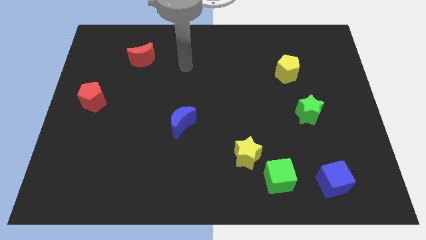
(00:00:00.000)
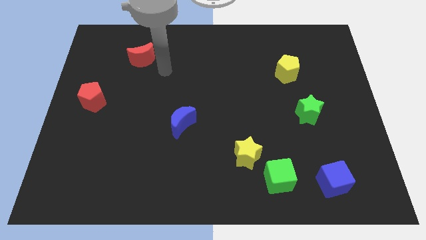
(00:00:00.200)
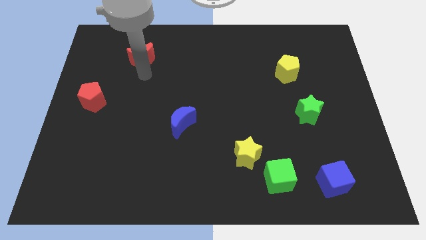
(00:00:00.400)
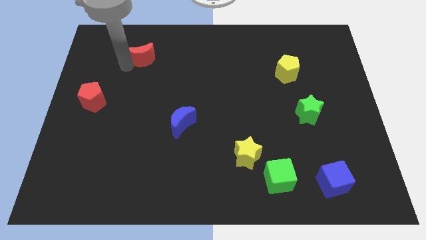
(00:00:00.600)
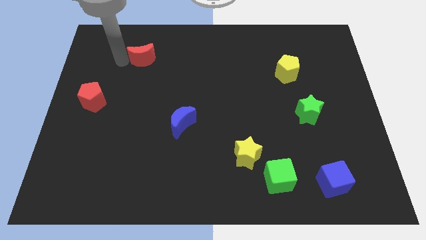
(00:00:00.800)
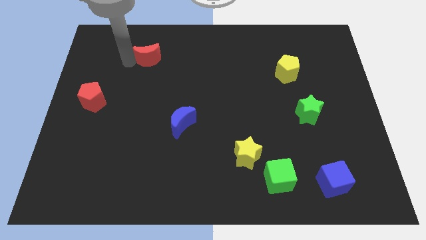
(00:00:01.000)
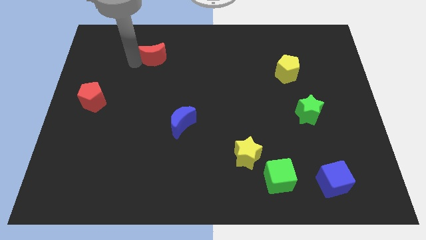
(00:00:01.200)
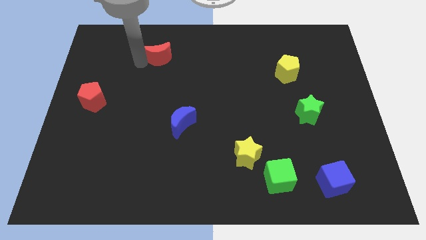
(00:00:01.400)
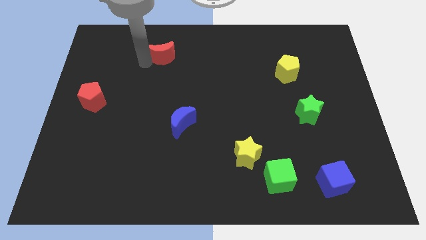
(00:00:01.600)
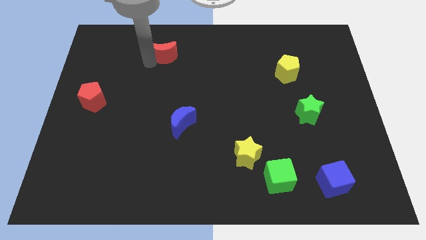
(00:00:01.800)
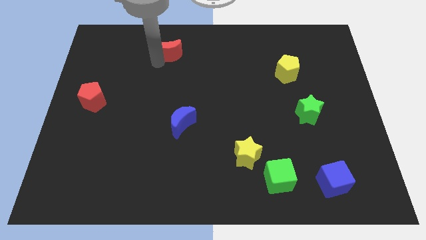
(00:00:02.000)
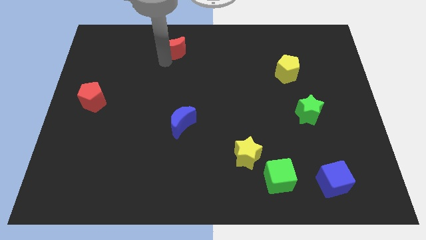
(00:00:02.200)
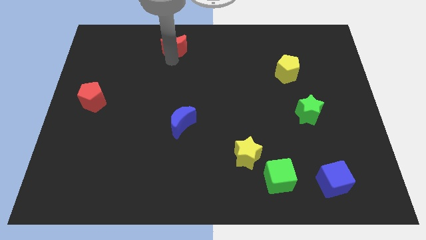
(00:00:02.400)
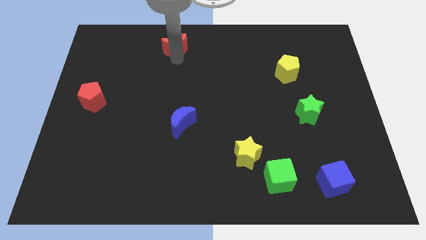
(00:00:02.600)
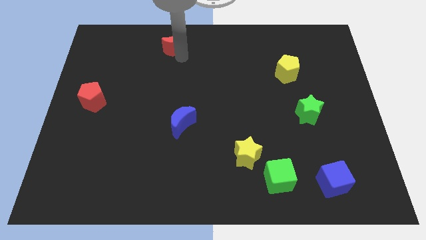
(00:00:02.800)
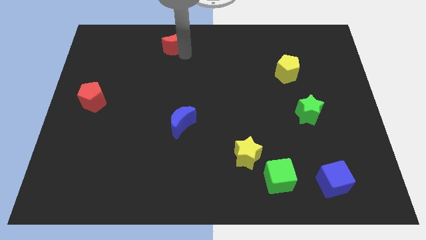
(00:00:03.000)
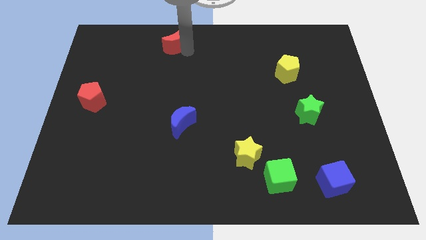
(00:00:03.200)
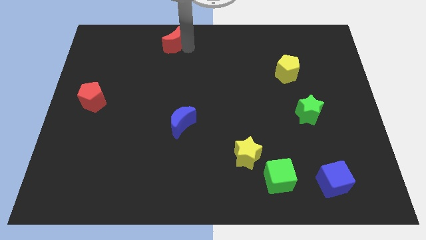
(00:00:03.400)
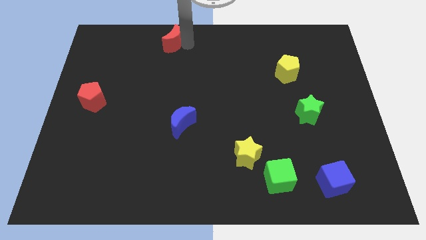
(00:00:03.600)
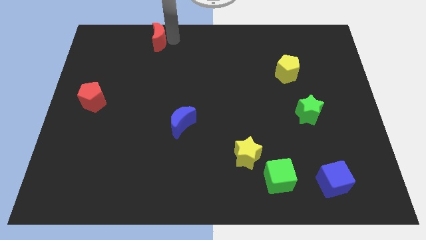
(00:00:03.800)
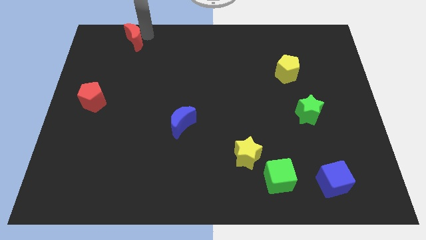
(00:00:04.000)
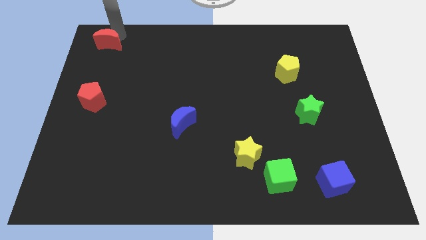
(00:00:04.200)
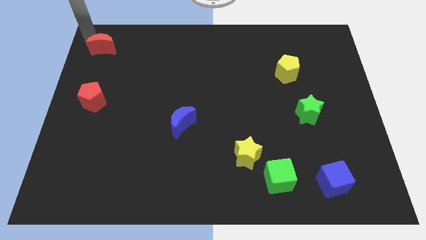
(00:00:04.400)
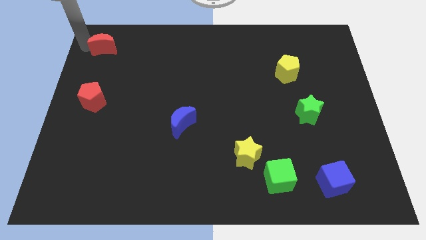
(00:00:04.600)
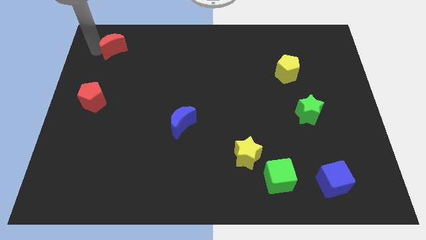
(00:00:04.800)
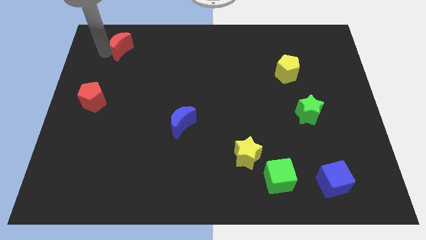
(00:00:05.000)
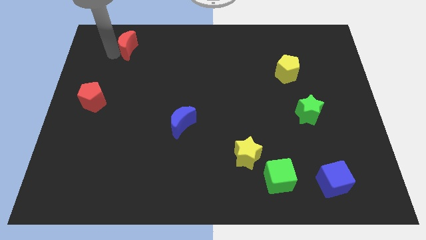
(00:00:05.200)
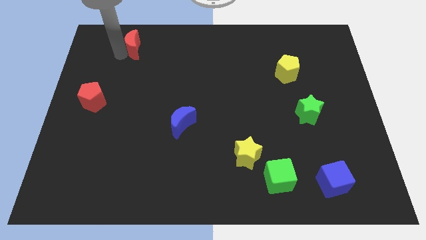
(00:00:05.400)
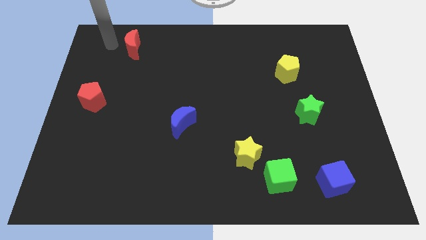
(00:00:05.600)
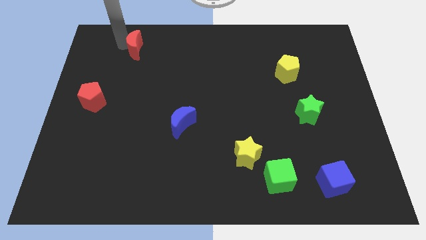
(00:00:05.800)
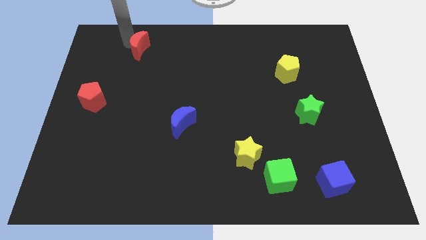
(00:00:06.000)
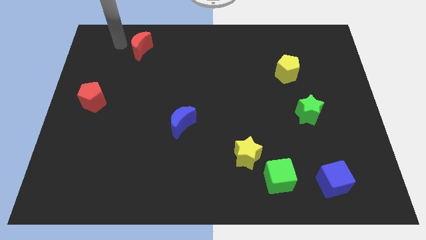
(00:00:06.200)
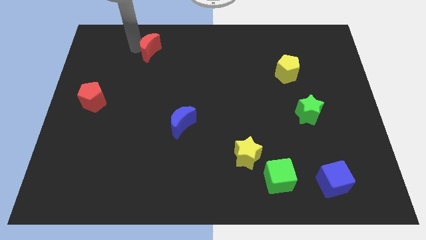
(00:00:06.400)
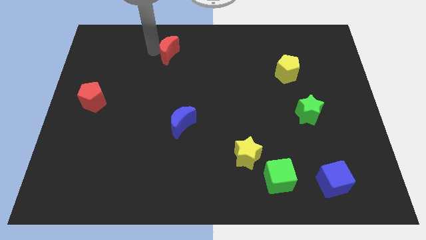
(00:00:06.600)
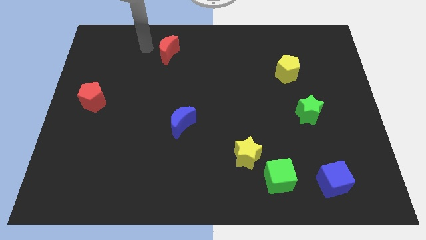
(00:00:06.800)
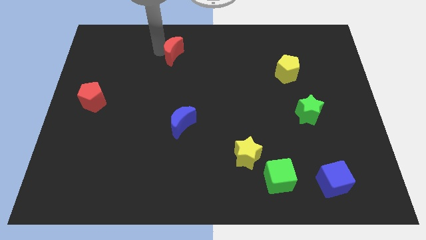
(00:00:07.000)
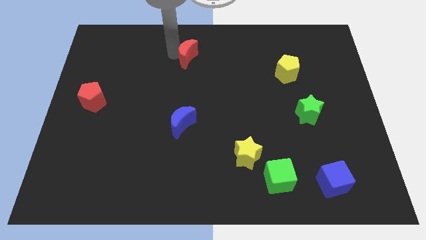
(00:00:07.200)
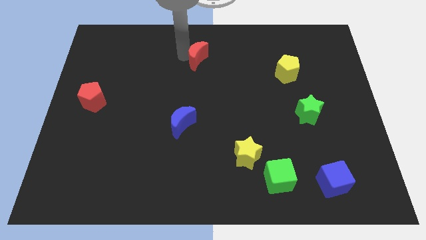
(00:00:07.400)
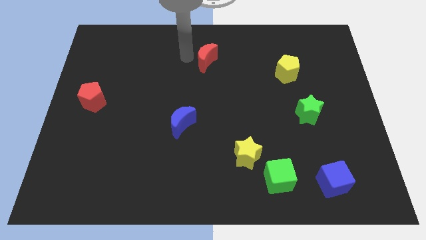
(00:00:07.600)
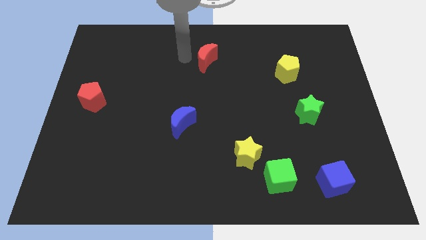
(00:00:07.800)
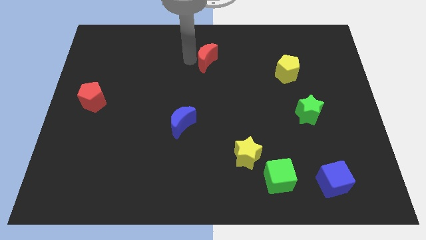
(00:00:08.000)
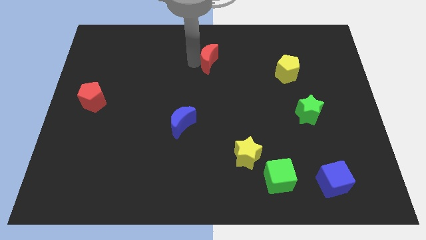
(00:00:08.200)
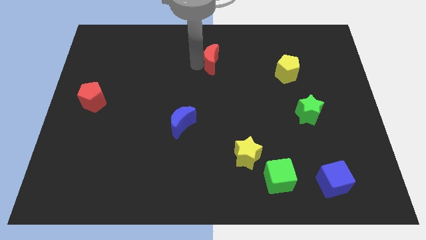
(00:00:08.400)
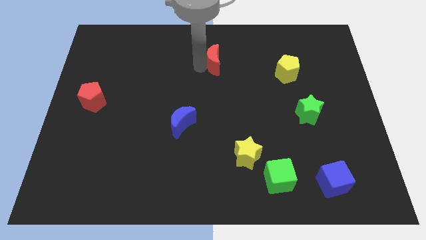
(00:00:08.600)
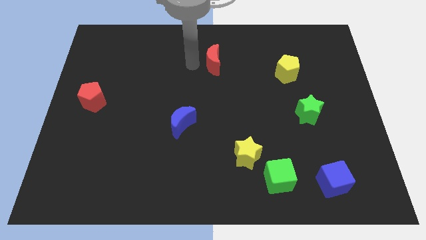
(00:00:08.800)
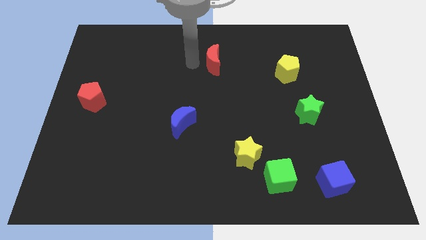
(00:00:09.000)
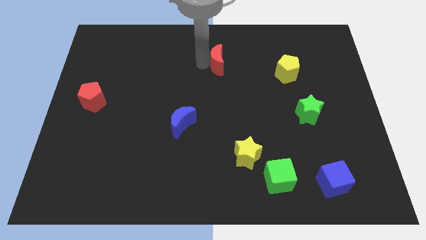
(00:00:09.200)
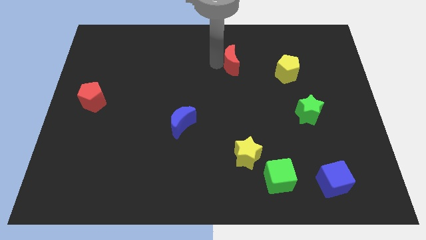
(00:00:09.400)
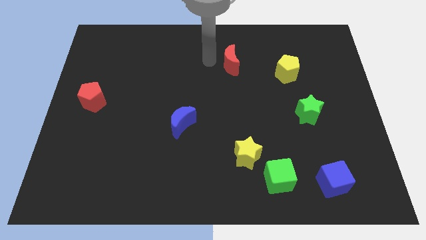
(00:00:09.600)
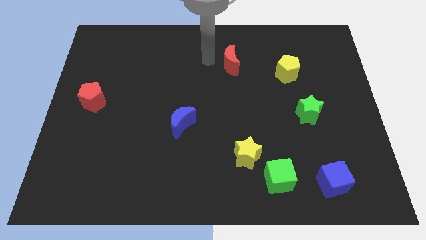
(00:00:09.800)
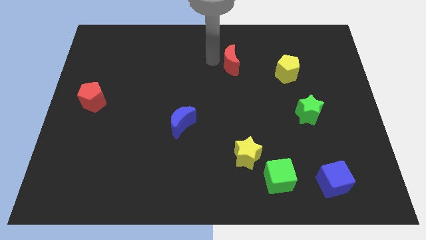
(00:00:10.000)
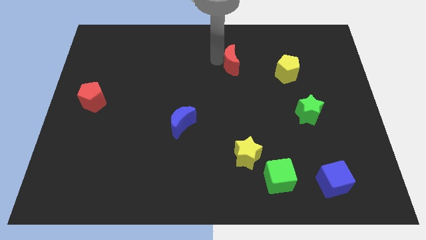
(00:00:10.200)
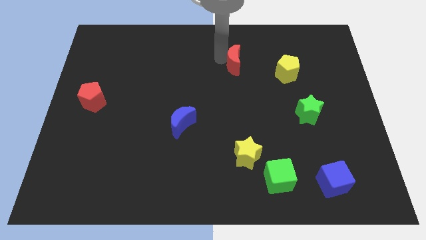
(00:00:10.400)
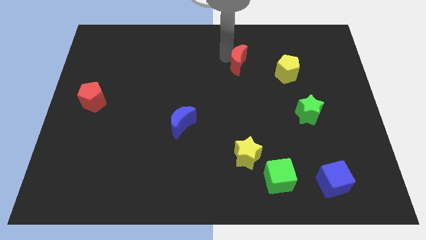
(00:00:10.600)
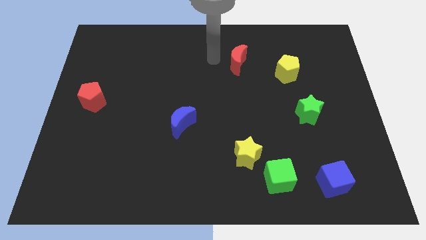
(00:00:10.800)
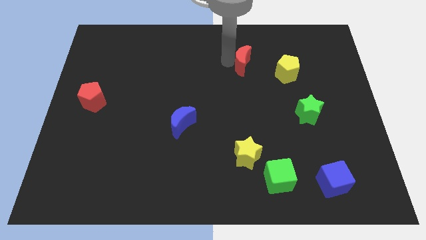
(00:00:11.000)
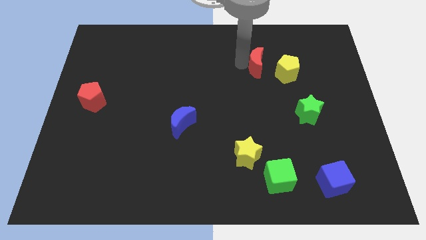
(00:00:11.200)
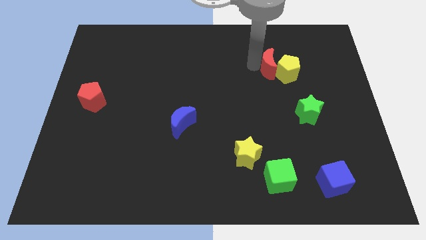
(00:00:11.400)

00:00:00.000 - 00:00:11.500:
push the red moon next to the yellow pentagon

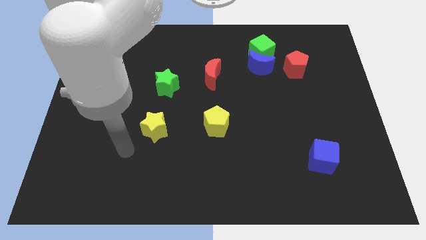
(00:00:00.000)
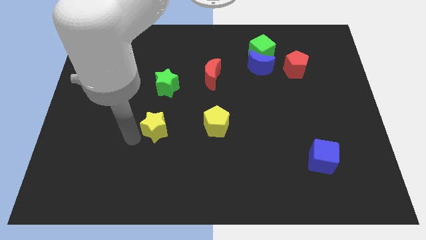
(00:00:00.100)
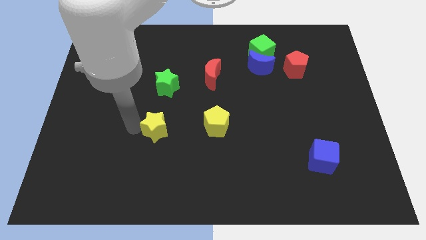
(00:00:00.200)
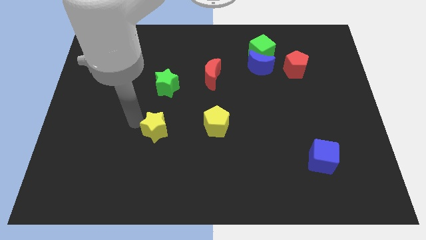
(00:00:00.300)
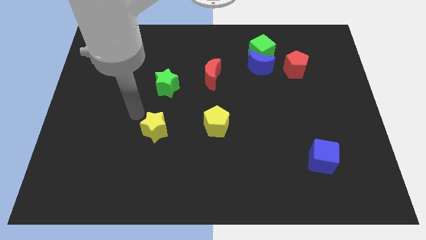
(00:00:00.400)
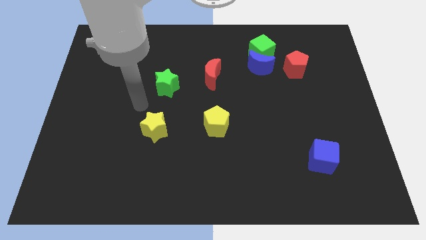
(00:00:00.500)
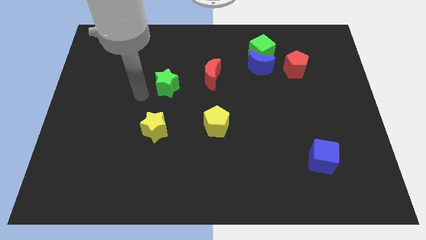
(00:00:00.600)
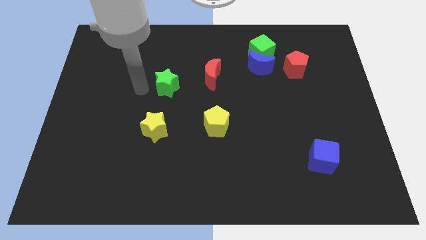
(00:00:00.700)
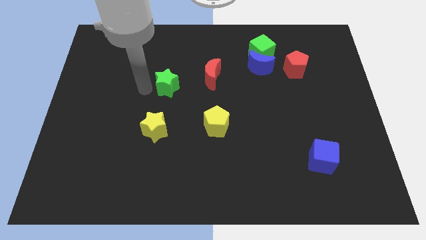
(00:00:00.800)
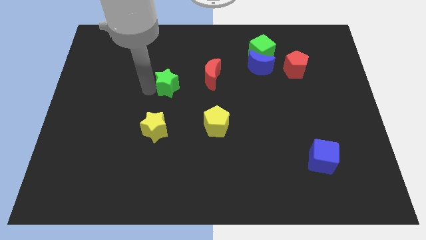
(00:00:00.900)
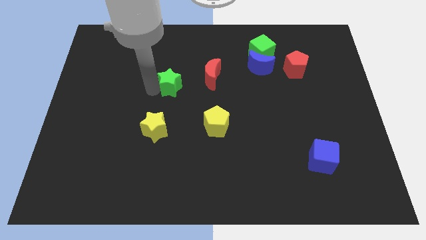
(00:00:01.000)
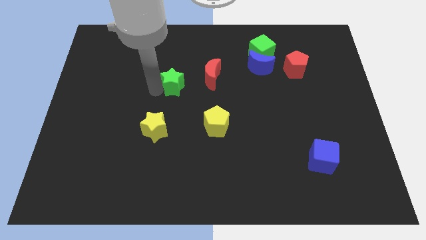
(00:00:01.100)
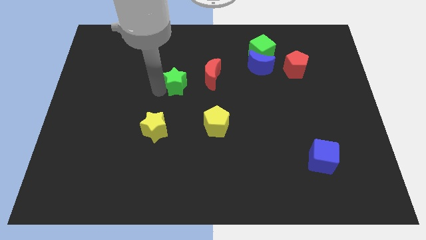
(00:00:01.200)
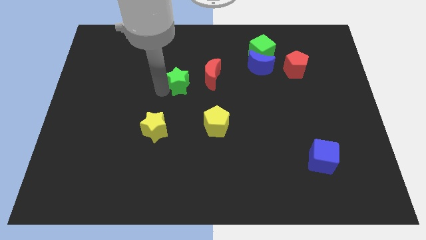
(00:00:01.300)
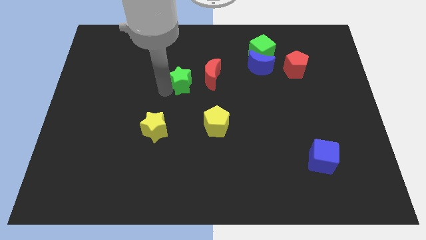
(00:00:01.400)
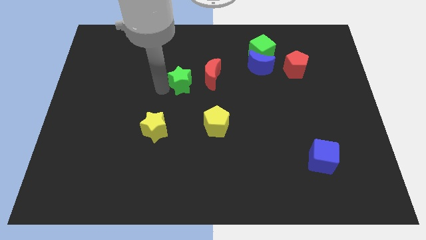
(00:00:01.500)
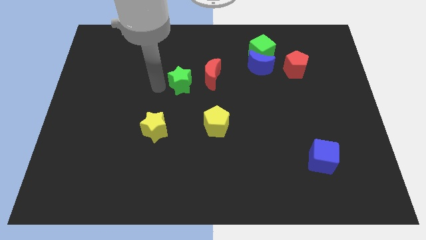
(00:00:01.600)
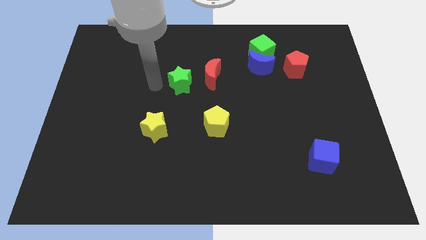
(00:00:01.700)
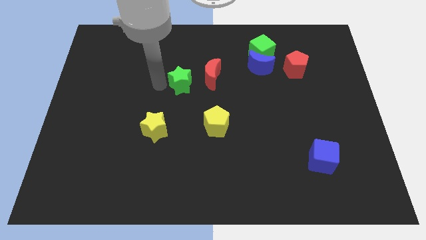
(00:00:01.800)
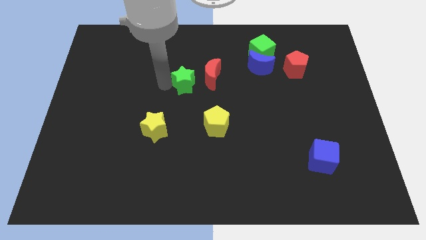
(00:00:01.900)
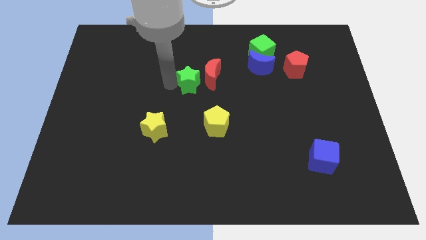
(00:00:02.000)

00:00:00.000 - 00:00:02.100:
move the green star next to the red moon
